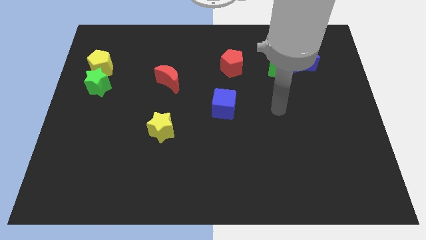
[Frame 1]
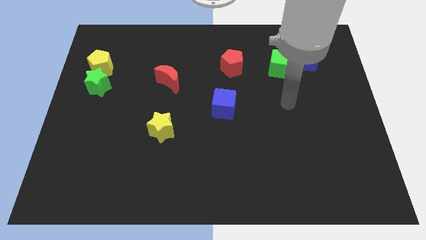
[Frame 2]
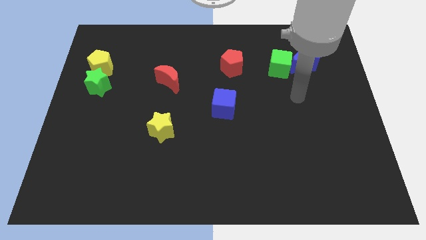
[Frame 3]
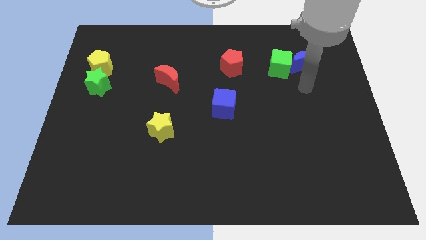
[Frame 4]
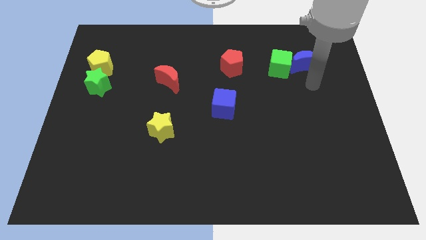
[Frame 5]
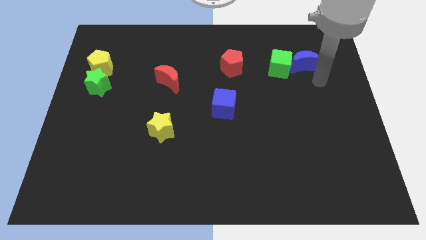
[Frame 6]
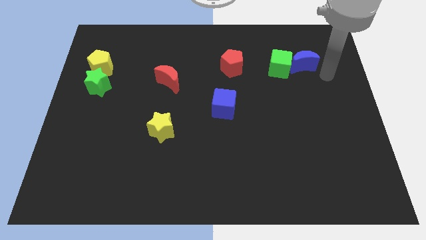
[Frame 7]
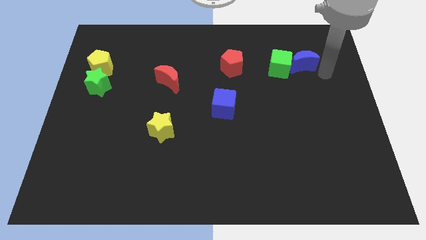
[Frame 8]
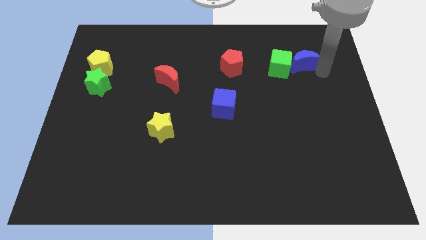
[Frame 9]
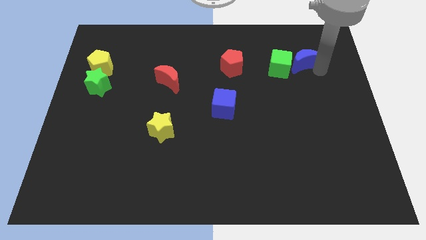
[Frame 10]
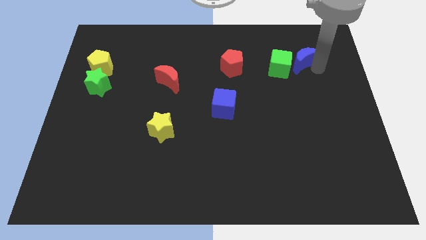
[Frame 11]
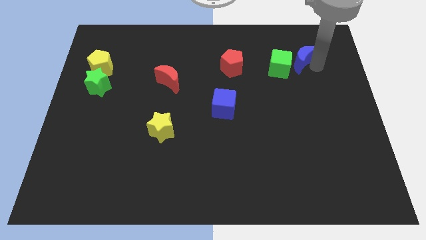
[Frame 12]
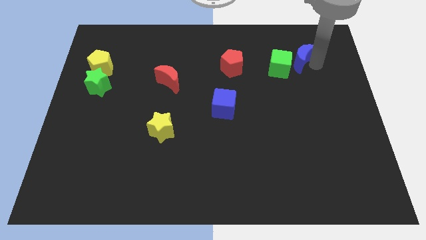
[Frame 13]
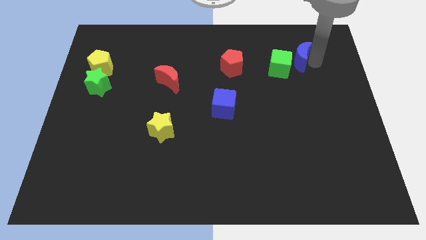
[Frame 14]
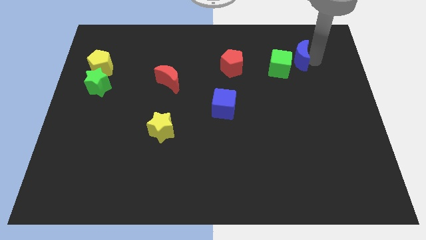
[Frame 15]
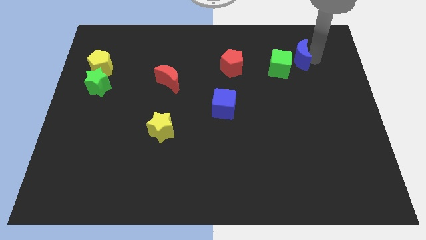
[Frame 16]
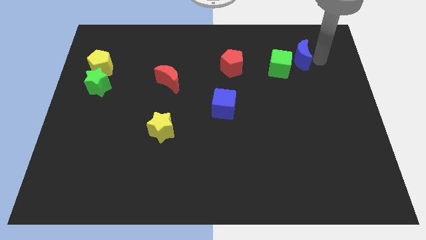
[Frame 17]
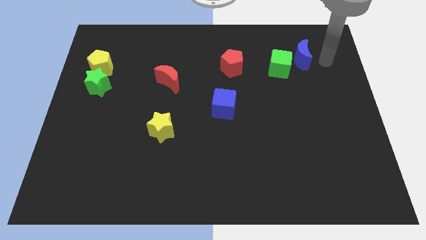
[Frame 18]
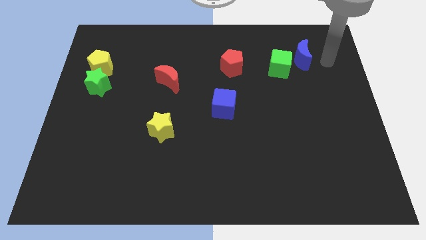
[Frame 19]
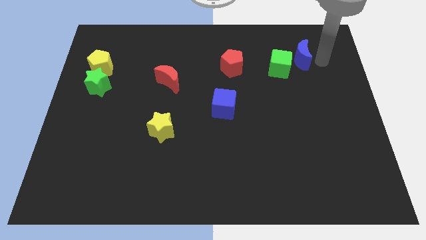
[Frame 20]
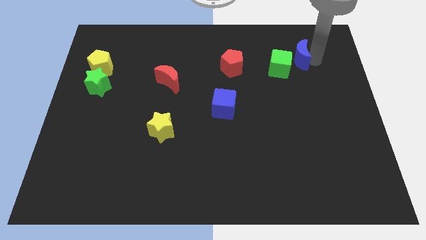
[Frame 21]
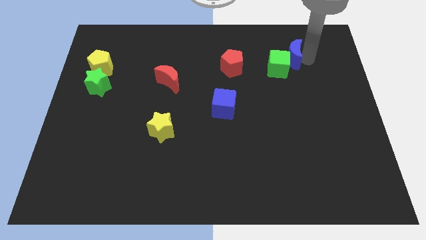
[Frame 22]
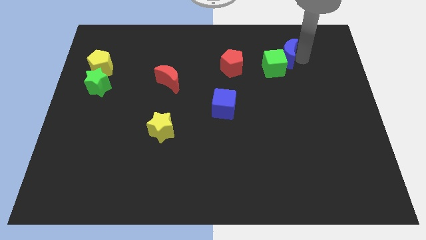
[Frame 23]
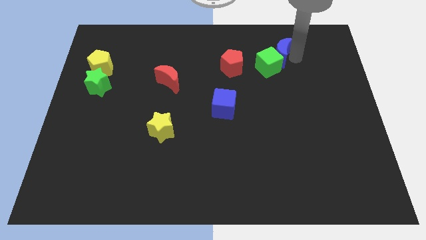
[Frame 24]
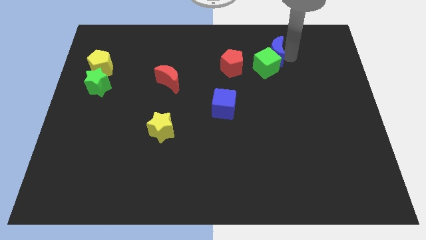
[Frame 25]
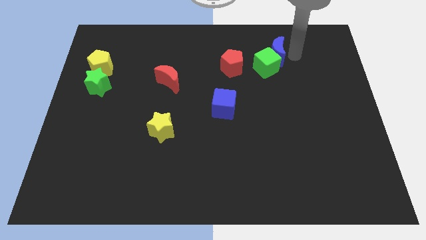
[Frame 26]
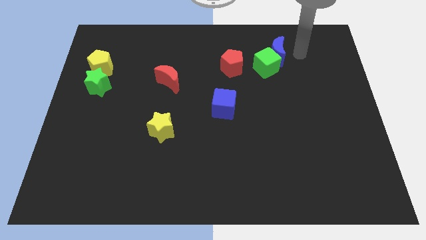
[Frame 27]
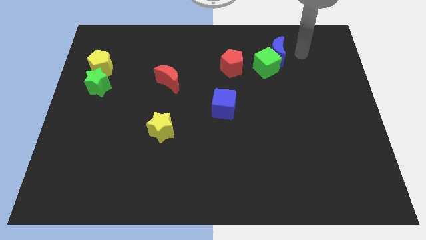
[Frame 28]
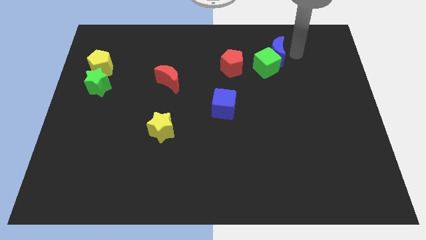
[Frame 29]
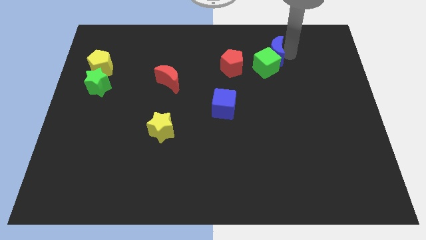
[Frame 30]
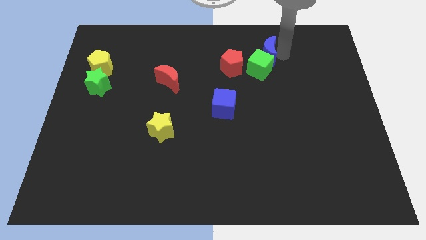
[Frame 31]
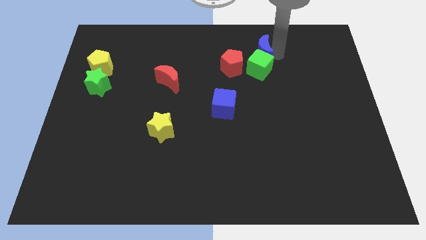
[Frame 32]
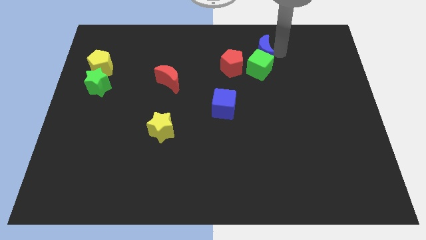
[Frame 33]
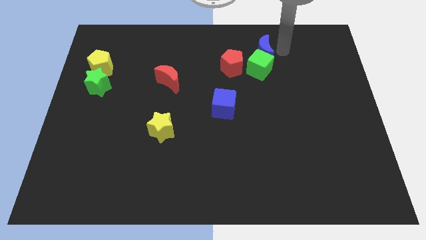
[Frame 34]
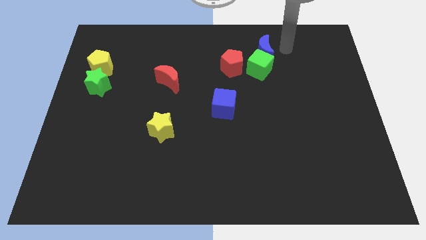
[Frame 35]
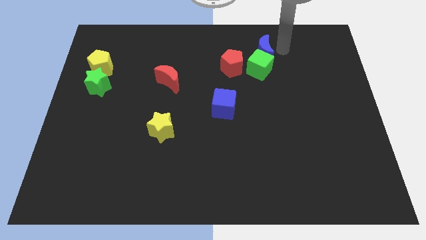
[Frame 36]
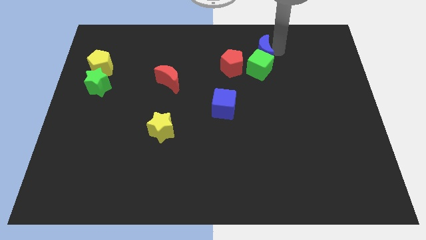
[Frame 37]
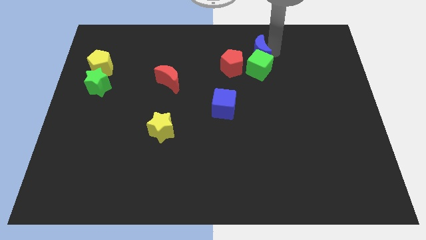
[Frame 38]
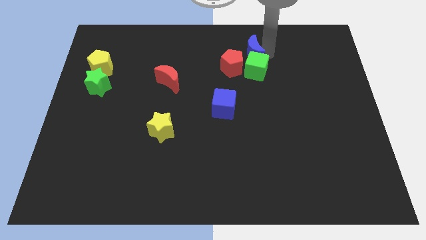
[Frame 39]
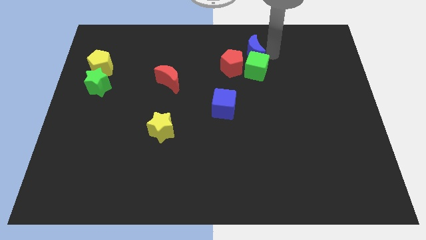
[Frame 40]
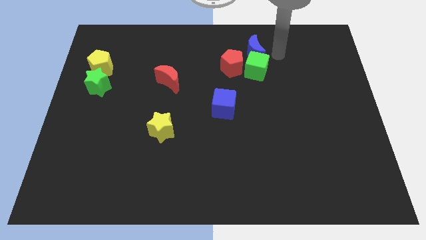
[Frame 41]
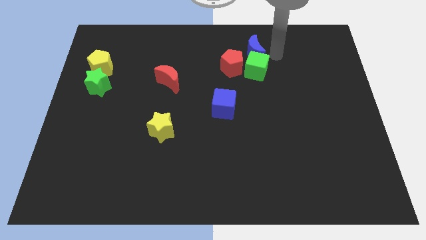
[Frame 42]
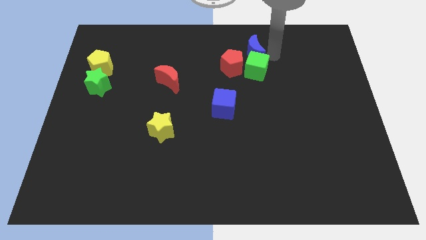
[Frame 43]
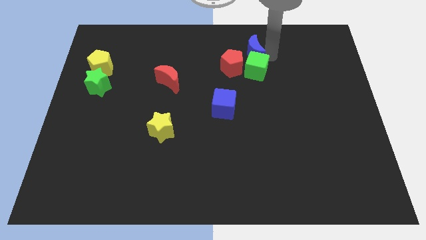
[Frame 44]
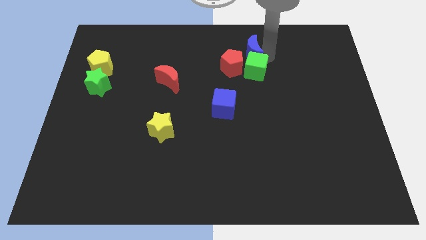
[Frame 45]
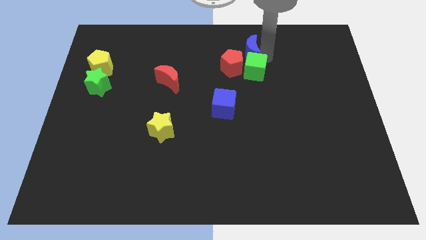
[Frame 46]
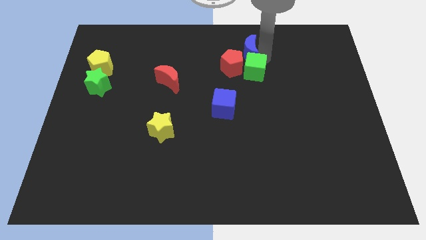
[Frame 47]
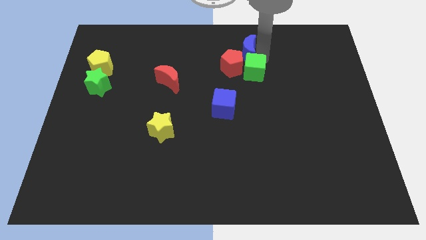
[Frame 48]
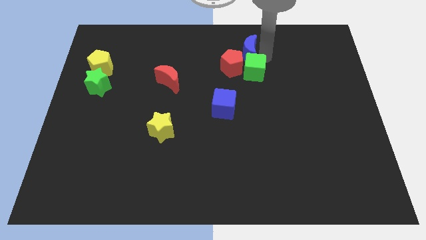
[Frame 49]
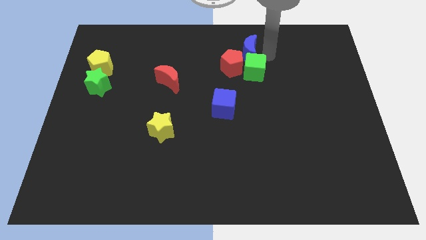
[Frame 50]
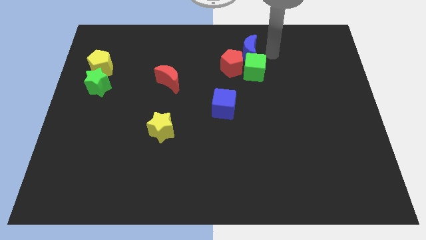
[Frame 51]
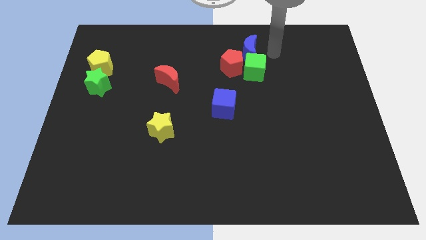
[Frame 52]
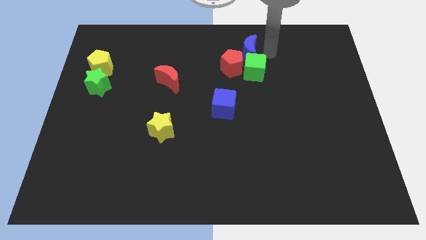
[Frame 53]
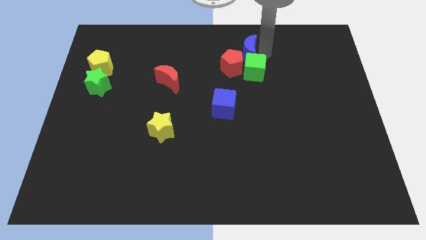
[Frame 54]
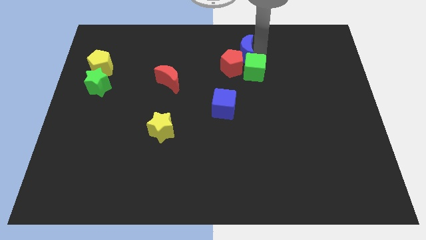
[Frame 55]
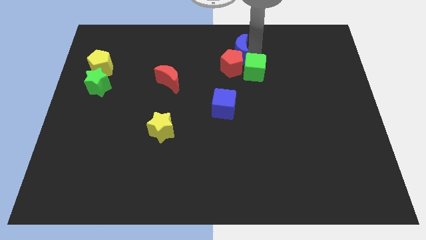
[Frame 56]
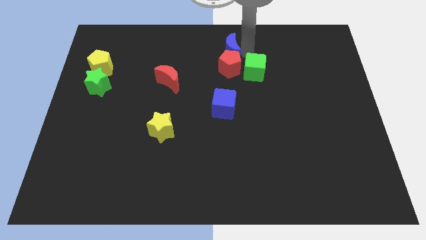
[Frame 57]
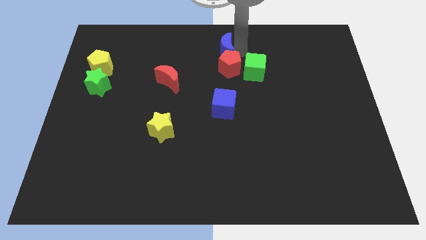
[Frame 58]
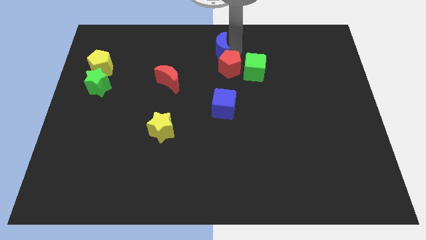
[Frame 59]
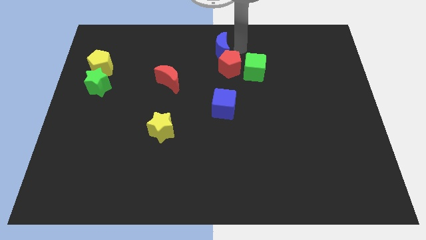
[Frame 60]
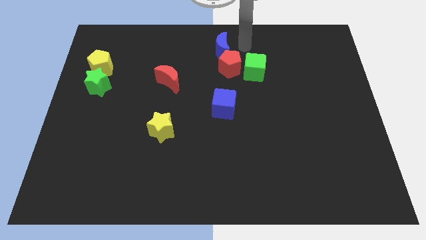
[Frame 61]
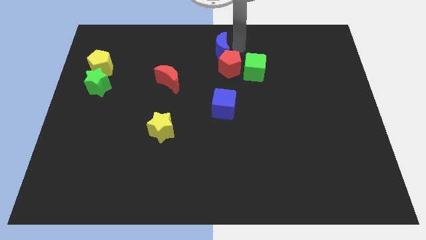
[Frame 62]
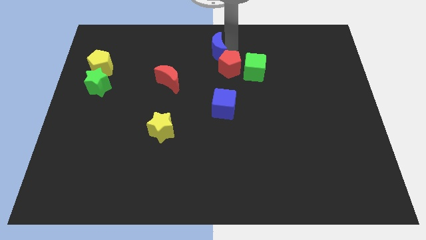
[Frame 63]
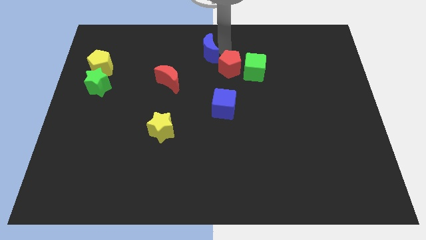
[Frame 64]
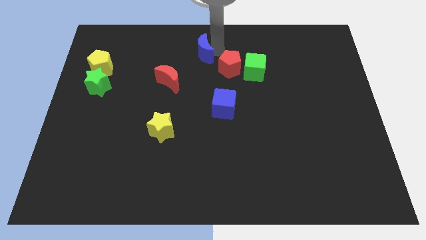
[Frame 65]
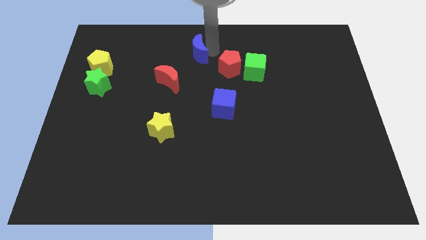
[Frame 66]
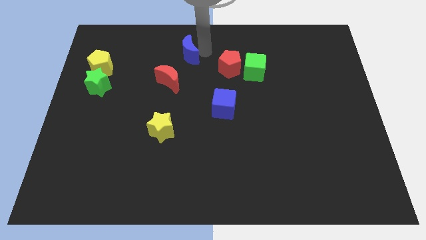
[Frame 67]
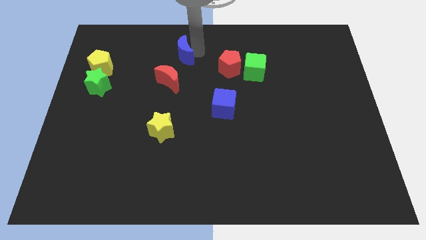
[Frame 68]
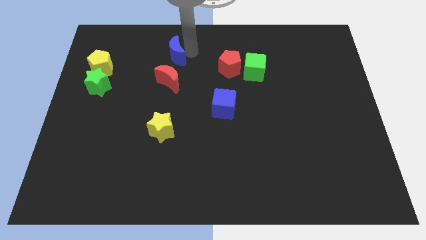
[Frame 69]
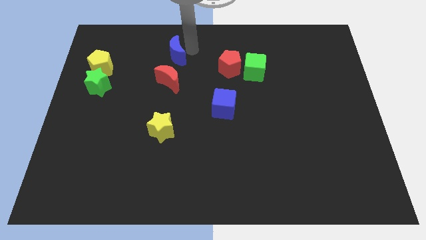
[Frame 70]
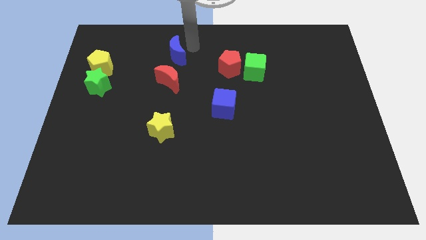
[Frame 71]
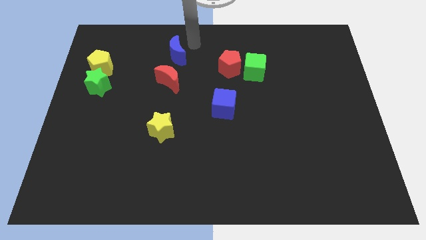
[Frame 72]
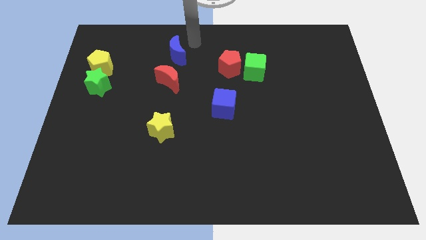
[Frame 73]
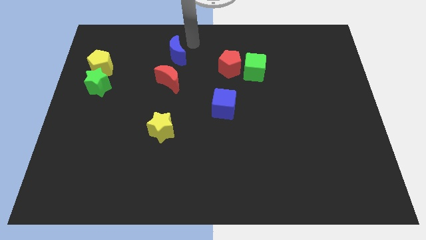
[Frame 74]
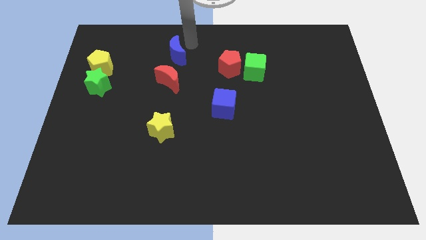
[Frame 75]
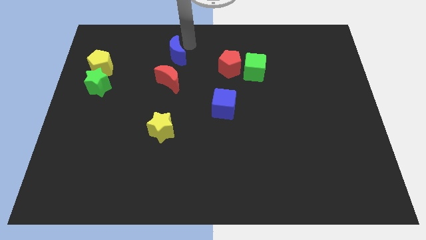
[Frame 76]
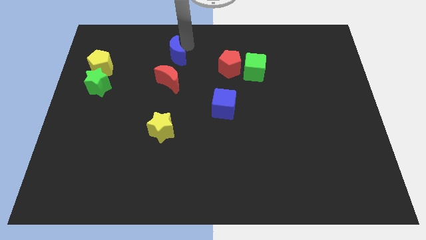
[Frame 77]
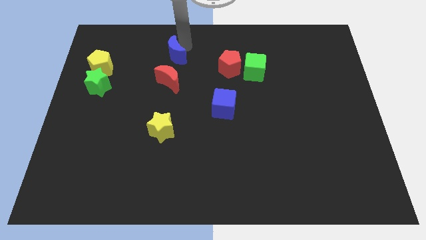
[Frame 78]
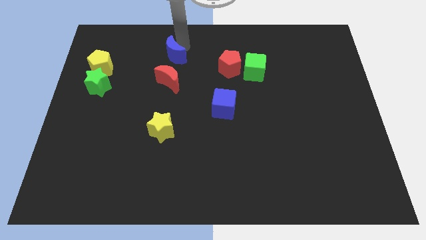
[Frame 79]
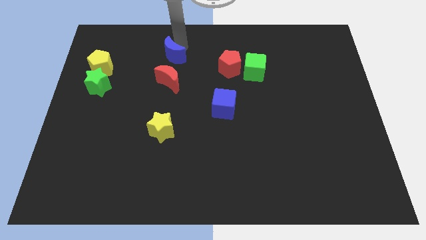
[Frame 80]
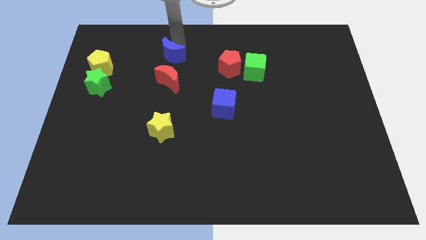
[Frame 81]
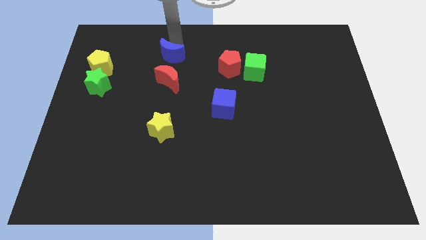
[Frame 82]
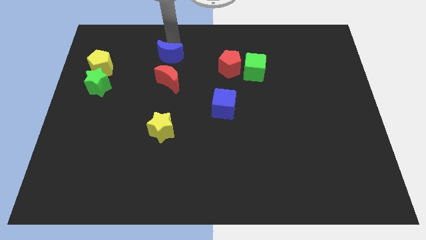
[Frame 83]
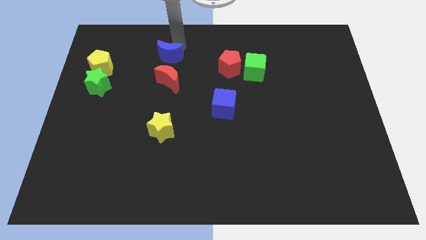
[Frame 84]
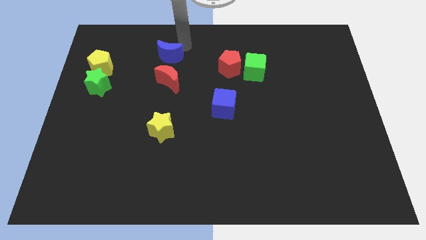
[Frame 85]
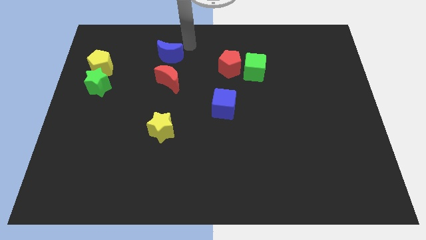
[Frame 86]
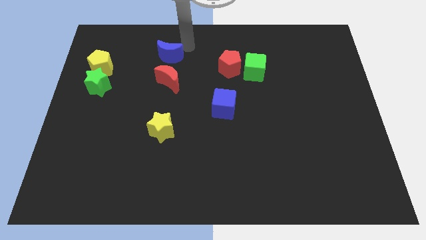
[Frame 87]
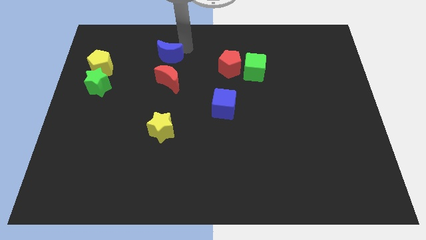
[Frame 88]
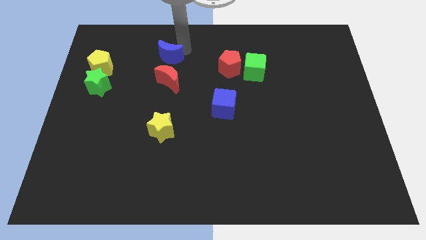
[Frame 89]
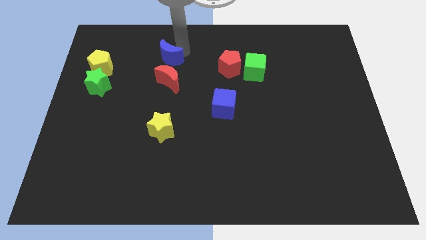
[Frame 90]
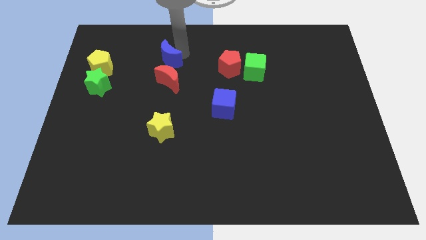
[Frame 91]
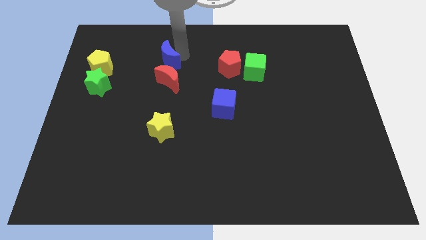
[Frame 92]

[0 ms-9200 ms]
push the blue moon to the top left of the red moon
